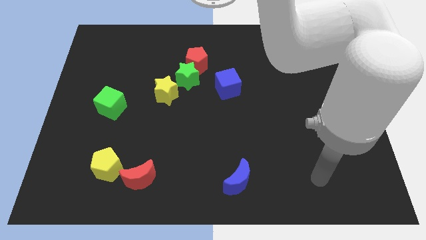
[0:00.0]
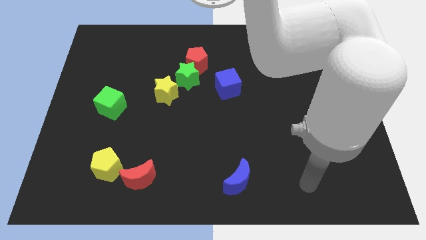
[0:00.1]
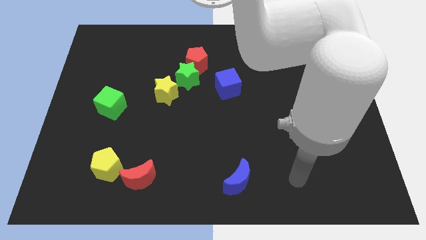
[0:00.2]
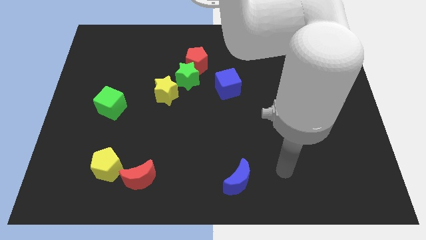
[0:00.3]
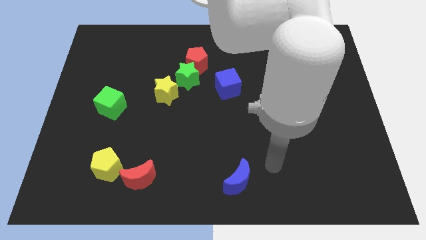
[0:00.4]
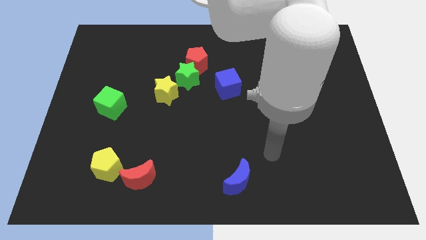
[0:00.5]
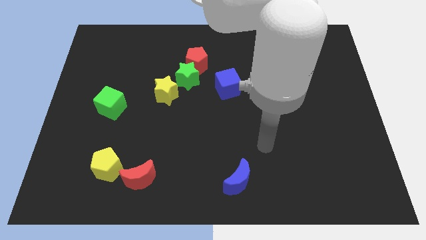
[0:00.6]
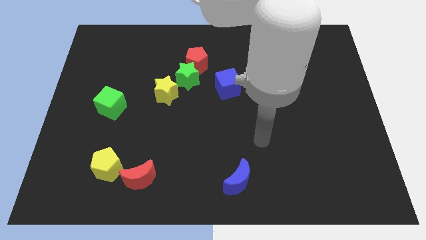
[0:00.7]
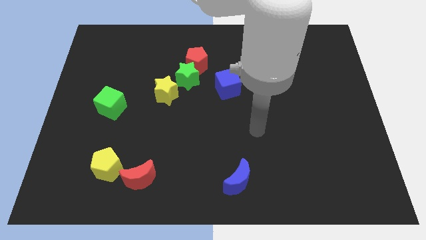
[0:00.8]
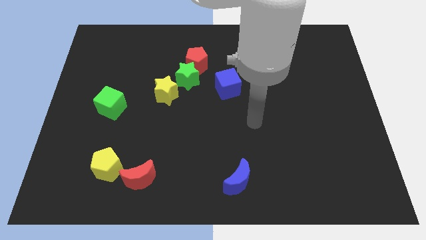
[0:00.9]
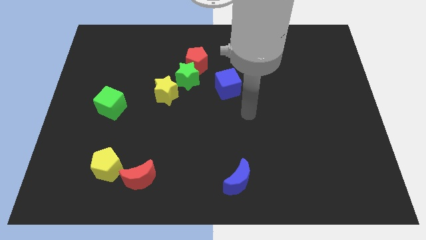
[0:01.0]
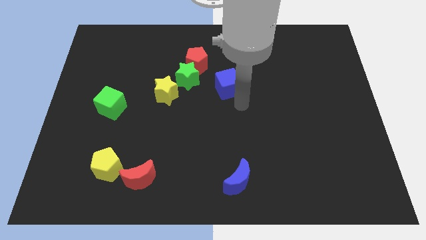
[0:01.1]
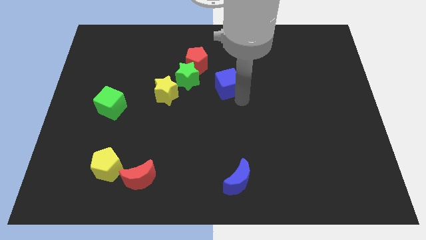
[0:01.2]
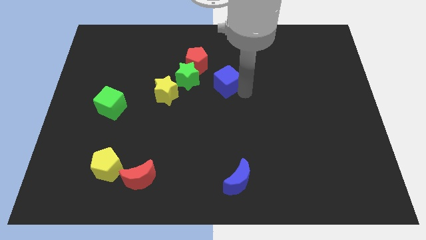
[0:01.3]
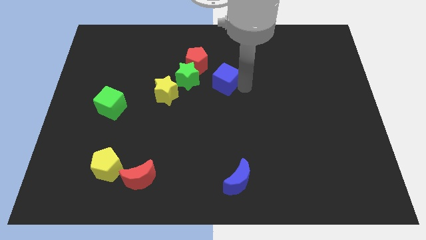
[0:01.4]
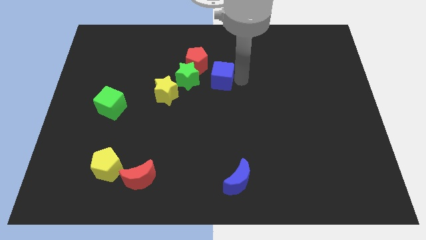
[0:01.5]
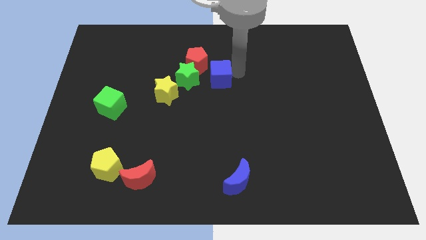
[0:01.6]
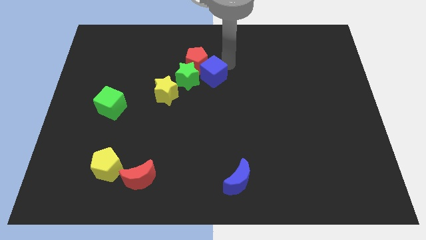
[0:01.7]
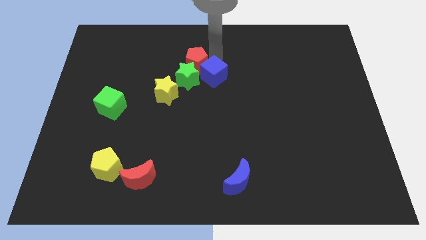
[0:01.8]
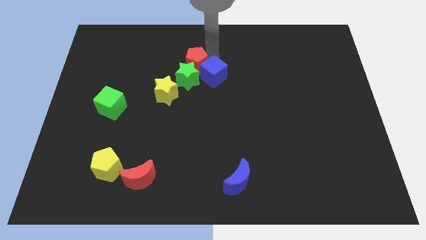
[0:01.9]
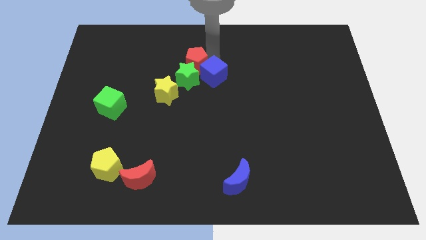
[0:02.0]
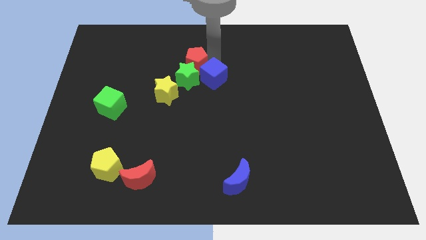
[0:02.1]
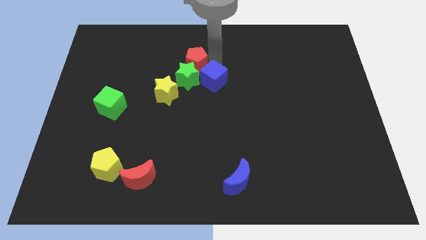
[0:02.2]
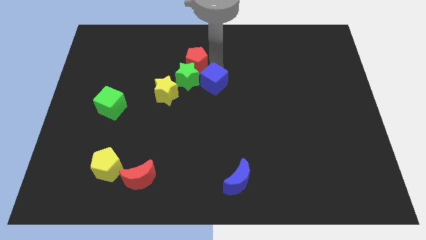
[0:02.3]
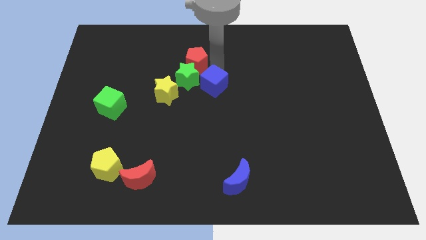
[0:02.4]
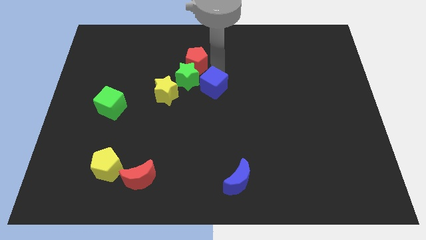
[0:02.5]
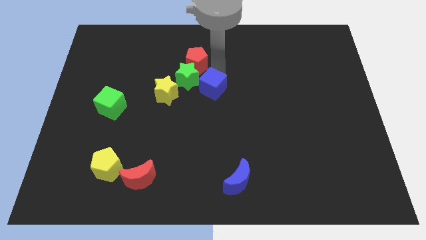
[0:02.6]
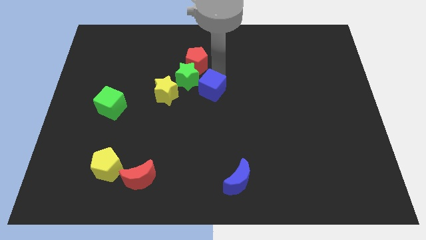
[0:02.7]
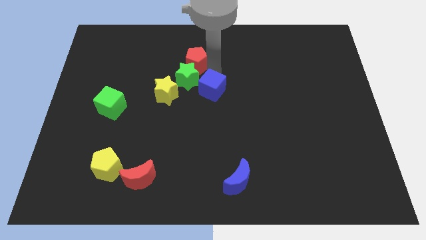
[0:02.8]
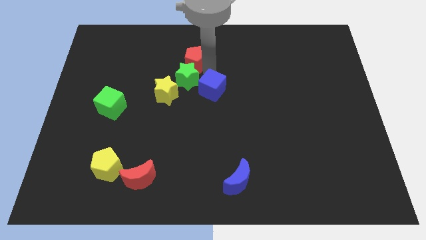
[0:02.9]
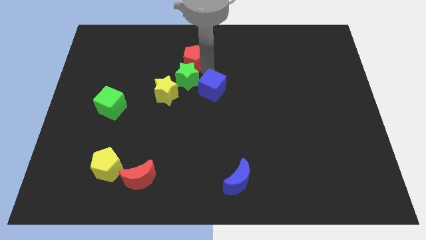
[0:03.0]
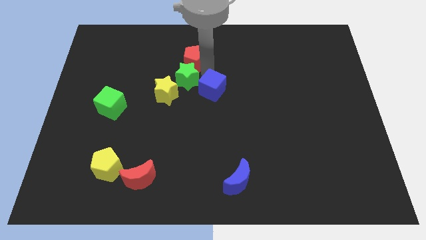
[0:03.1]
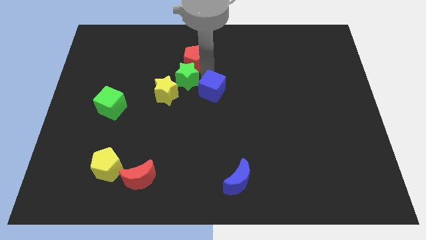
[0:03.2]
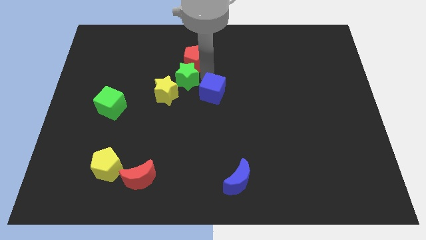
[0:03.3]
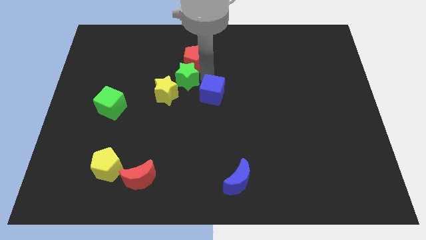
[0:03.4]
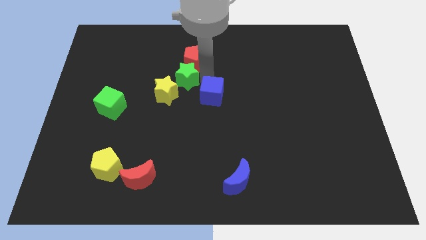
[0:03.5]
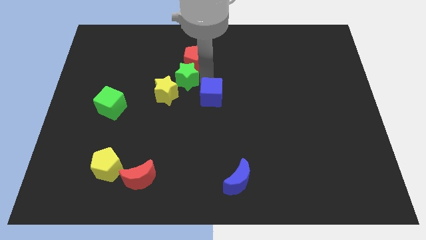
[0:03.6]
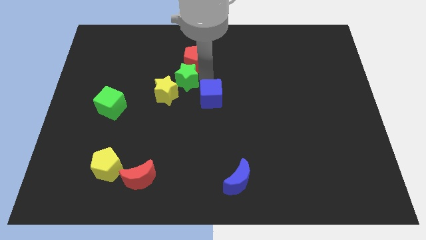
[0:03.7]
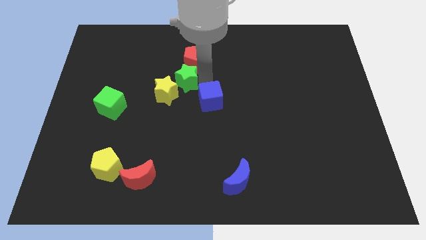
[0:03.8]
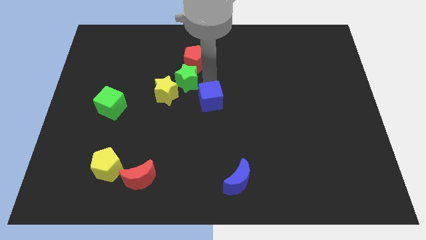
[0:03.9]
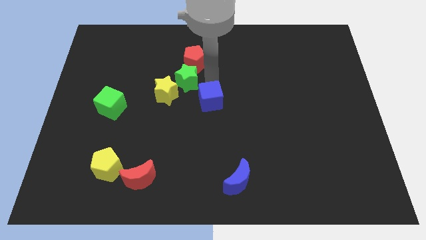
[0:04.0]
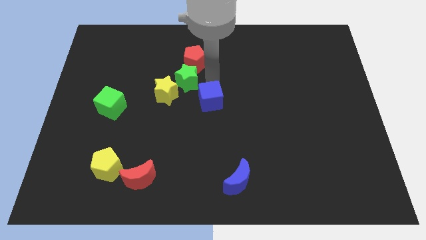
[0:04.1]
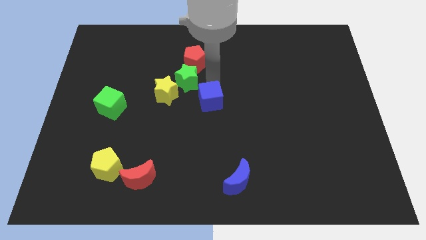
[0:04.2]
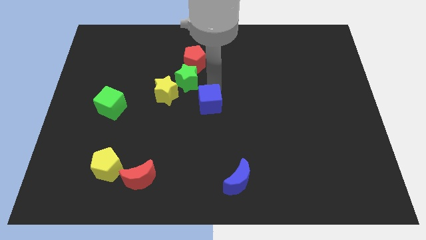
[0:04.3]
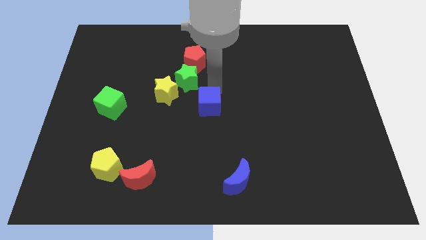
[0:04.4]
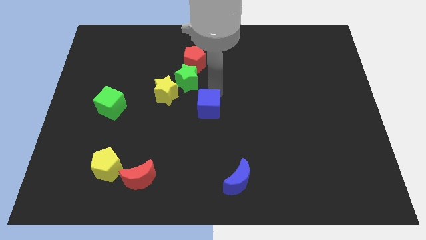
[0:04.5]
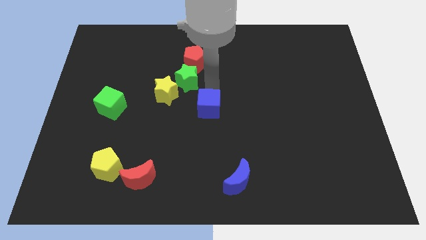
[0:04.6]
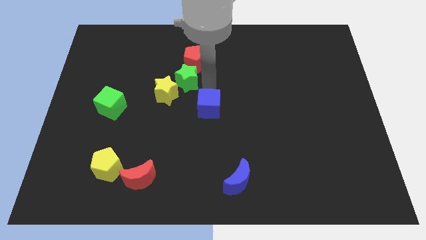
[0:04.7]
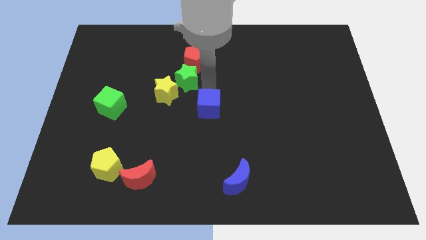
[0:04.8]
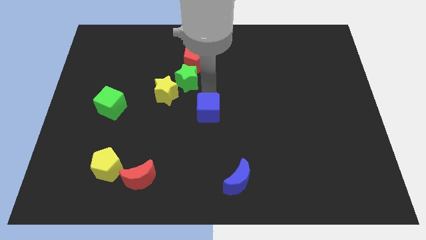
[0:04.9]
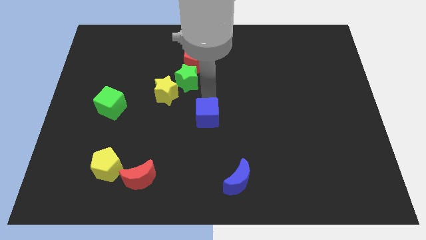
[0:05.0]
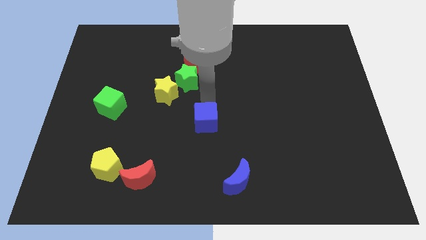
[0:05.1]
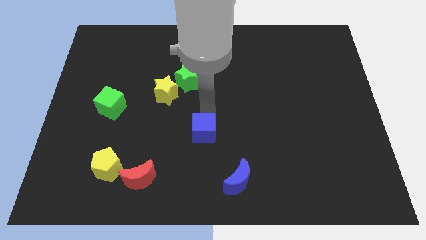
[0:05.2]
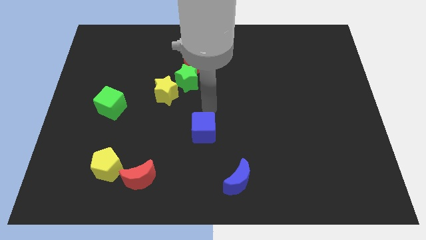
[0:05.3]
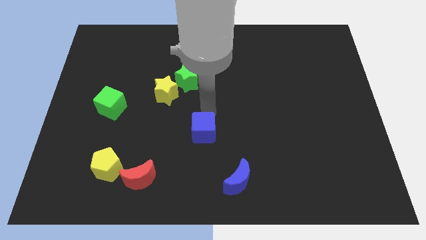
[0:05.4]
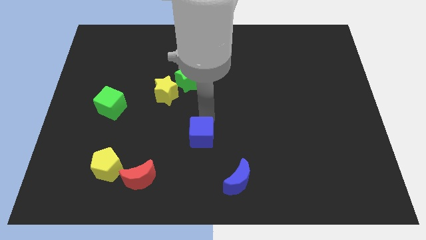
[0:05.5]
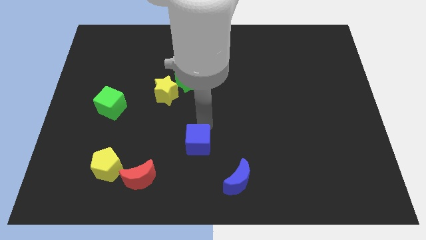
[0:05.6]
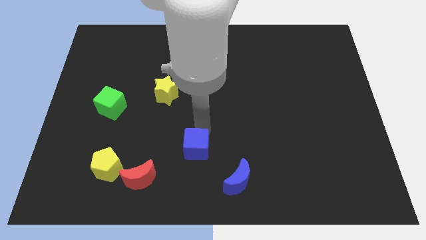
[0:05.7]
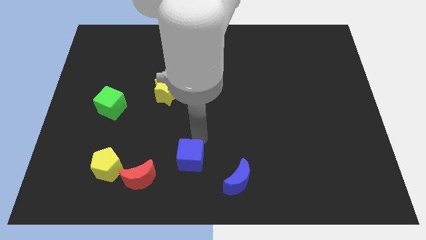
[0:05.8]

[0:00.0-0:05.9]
push the blue cube just right of the red moon

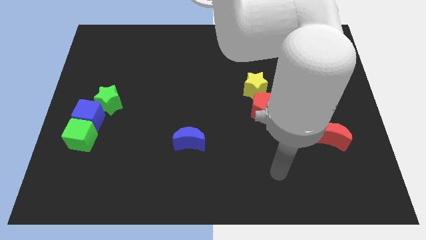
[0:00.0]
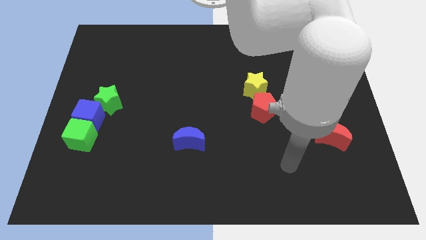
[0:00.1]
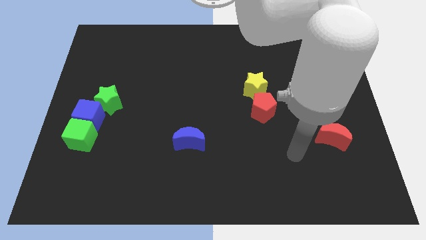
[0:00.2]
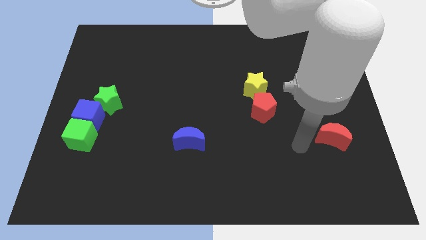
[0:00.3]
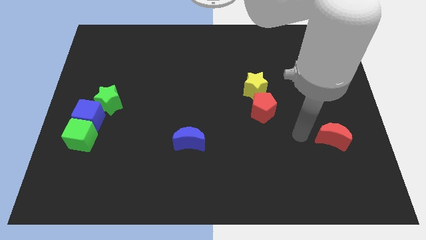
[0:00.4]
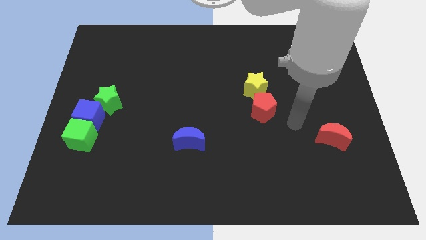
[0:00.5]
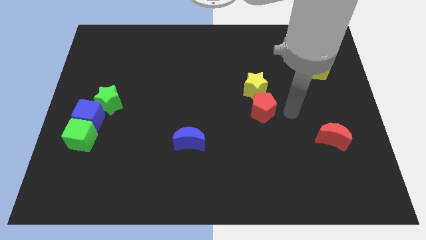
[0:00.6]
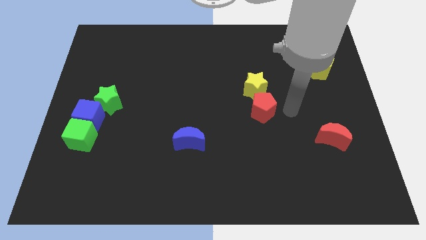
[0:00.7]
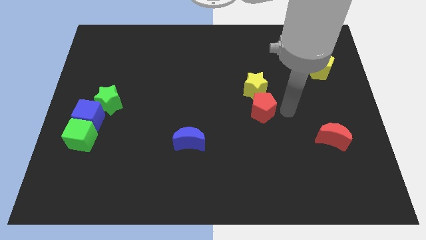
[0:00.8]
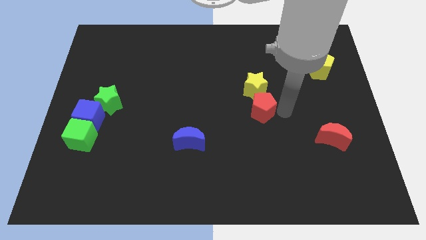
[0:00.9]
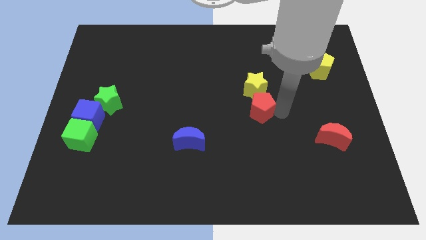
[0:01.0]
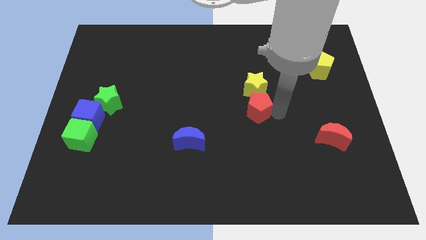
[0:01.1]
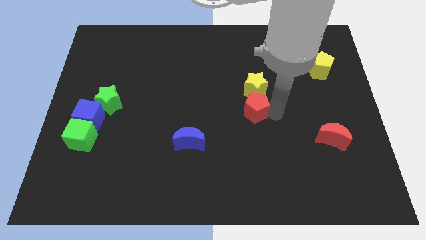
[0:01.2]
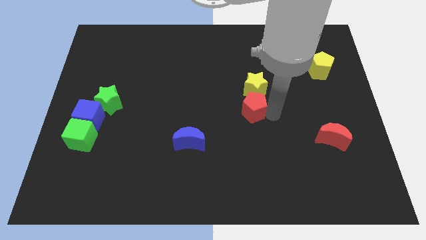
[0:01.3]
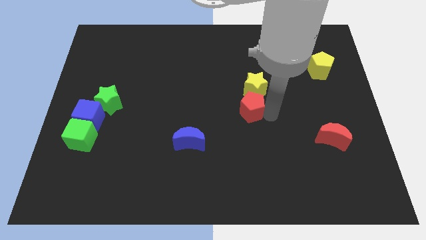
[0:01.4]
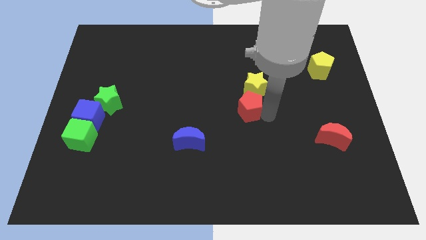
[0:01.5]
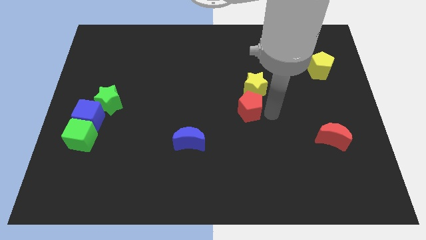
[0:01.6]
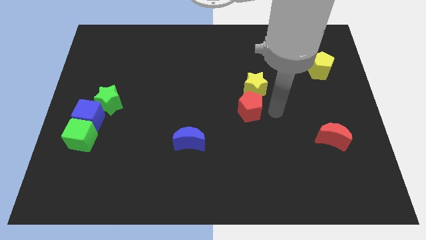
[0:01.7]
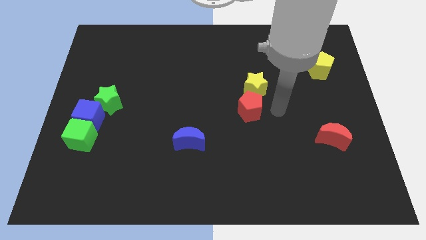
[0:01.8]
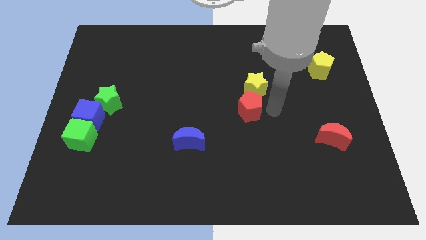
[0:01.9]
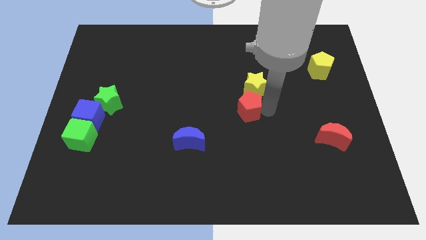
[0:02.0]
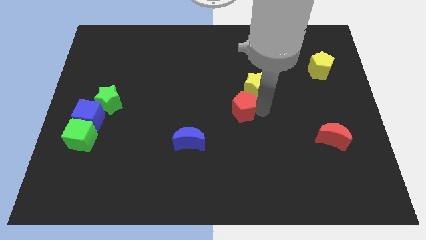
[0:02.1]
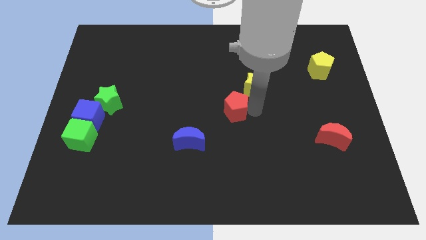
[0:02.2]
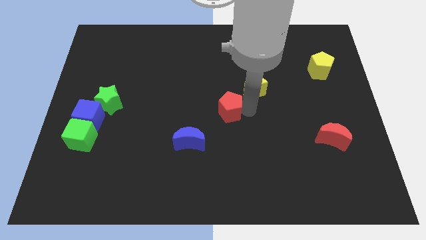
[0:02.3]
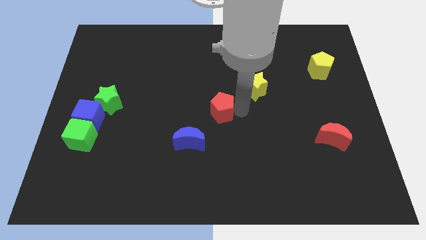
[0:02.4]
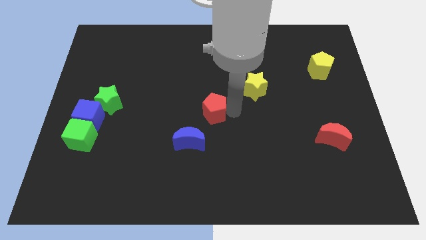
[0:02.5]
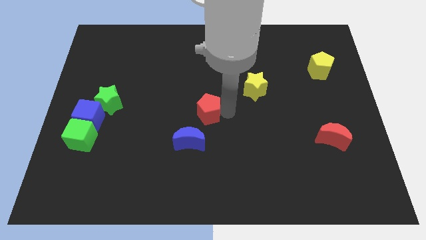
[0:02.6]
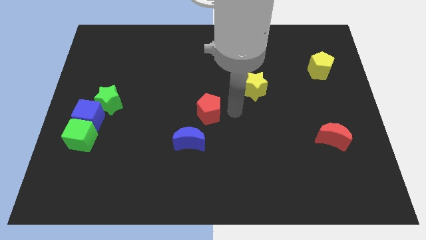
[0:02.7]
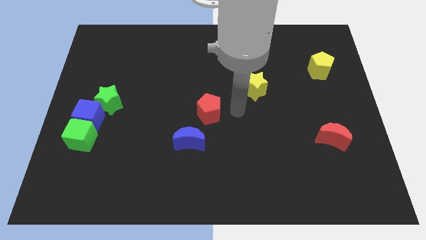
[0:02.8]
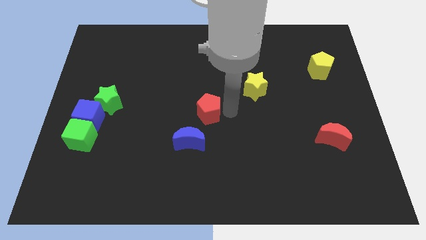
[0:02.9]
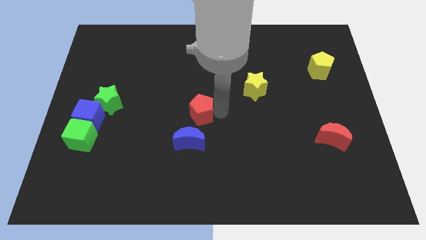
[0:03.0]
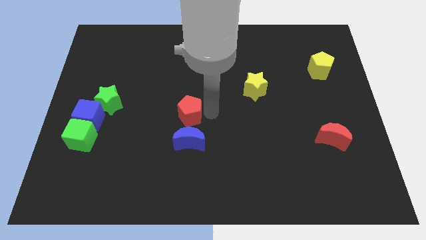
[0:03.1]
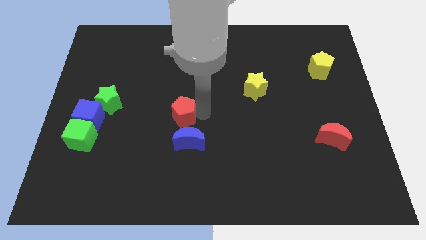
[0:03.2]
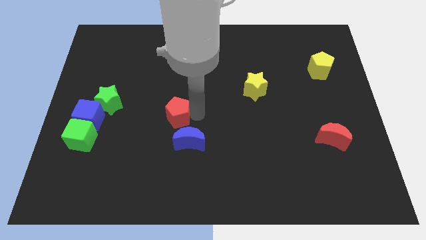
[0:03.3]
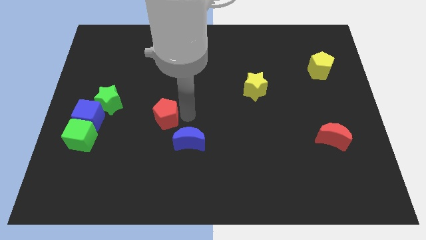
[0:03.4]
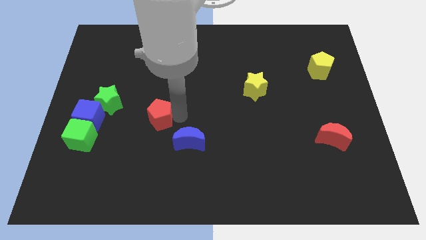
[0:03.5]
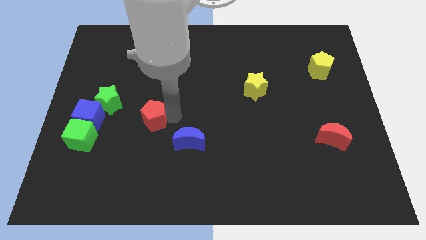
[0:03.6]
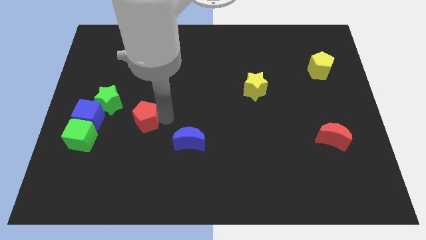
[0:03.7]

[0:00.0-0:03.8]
push the red pentagon to the bottom right side of the green star
